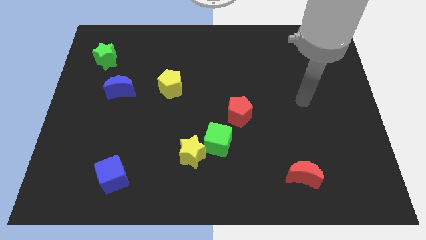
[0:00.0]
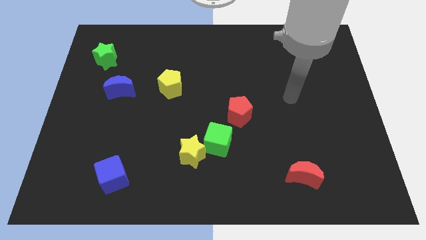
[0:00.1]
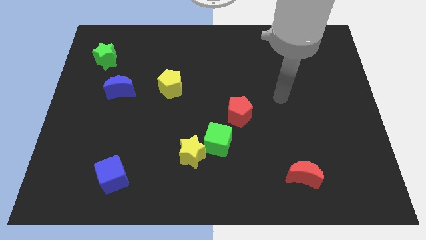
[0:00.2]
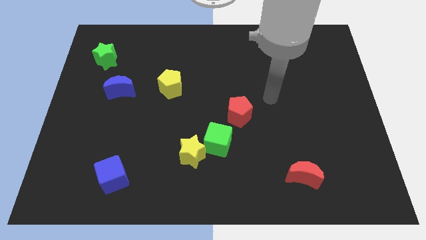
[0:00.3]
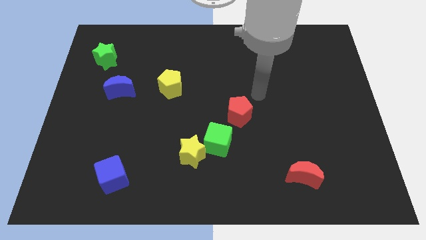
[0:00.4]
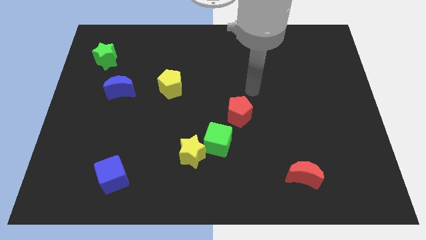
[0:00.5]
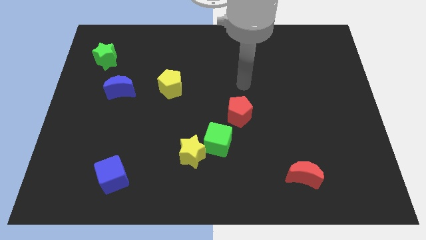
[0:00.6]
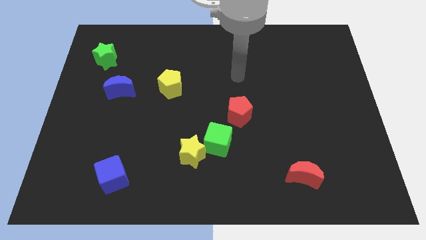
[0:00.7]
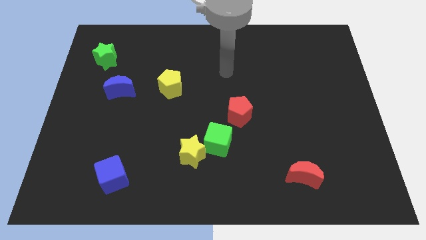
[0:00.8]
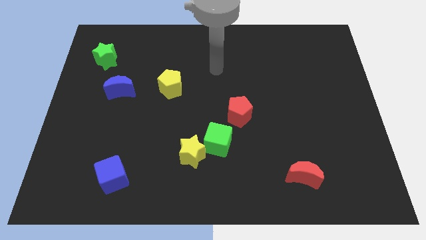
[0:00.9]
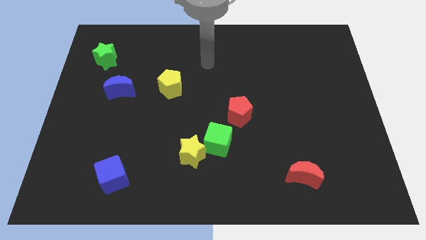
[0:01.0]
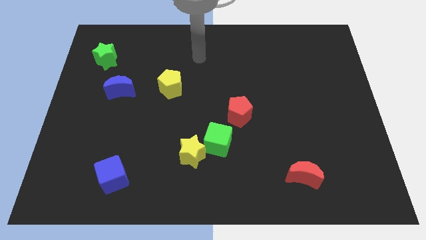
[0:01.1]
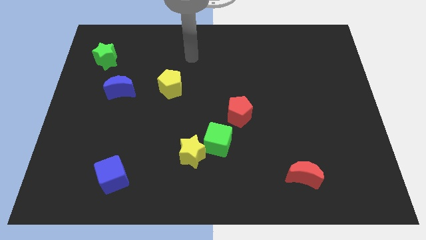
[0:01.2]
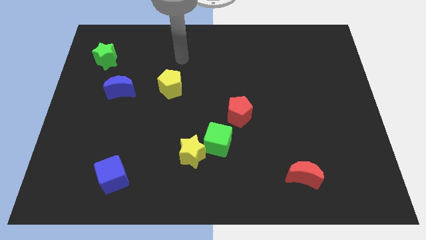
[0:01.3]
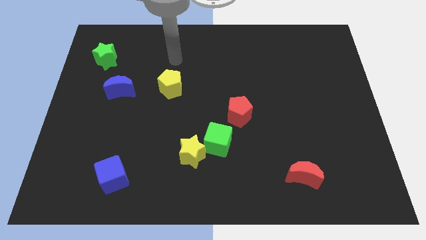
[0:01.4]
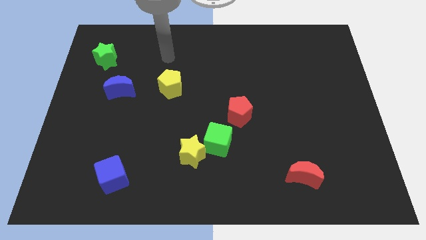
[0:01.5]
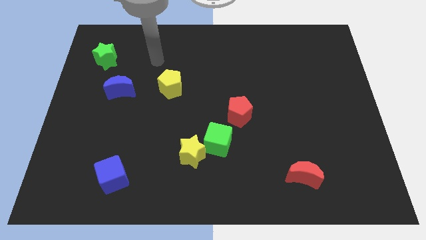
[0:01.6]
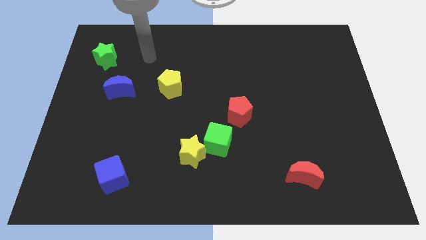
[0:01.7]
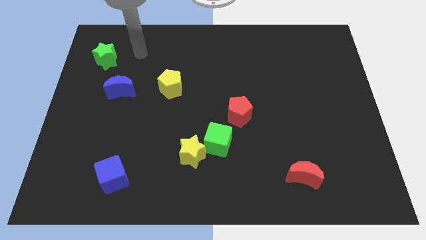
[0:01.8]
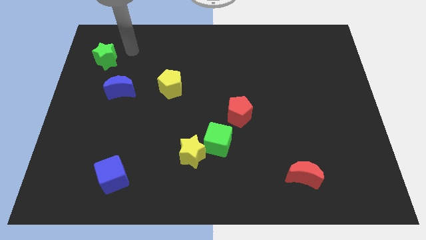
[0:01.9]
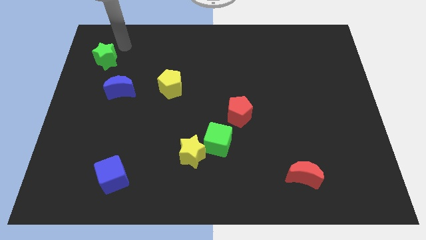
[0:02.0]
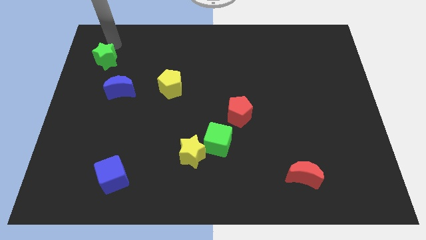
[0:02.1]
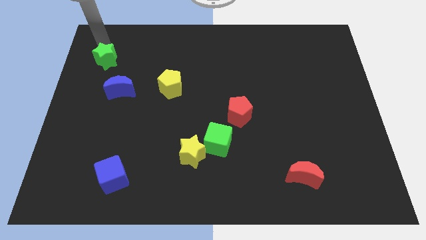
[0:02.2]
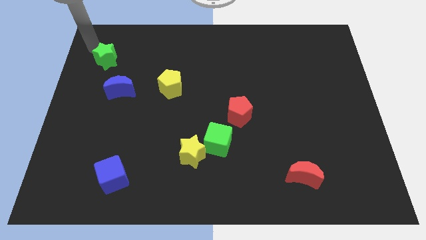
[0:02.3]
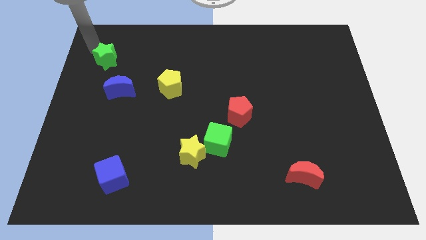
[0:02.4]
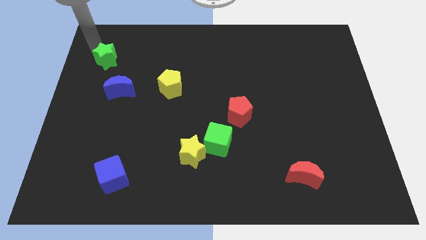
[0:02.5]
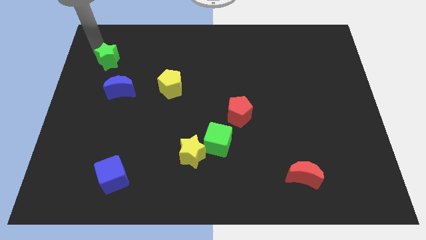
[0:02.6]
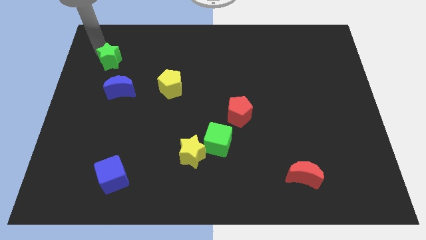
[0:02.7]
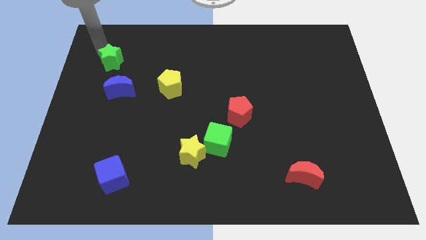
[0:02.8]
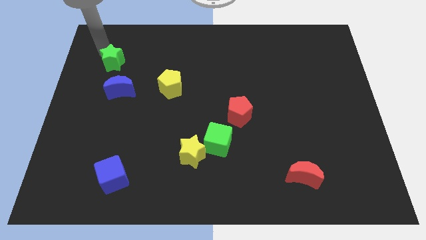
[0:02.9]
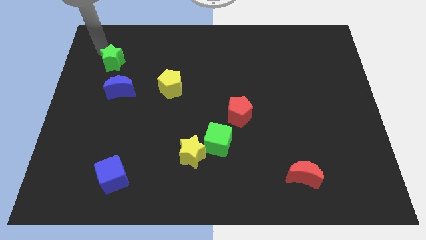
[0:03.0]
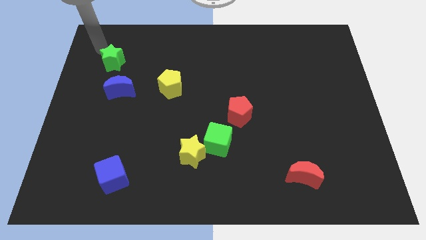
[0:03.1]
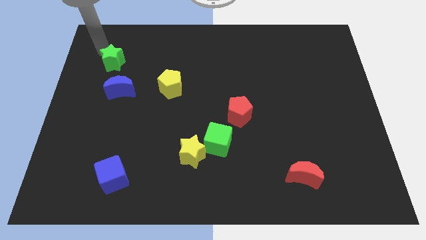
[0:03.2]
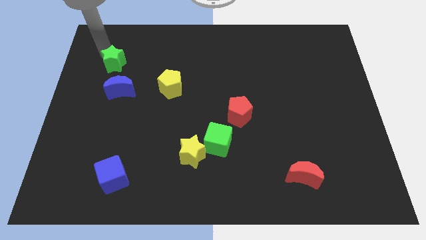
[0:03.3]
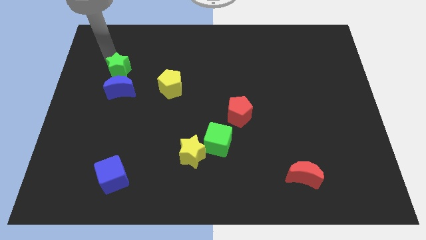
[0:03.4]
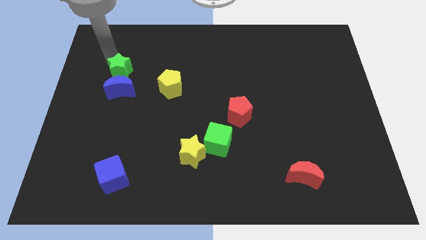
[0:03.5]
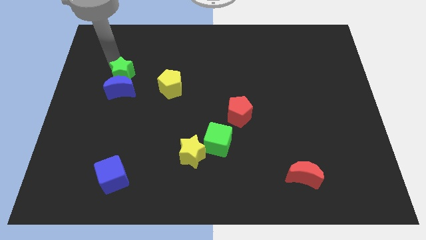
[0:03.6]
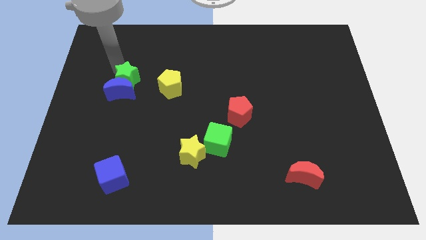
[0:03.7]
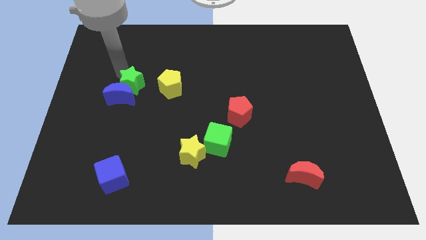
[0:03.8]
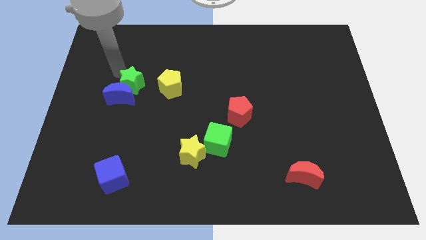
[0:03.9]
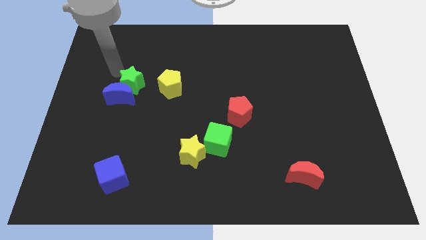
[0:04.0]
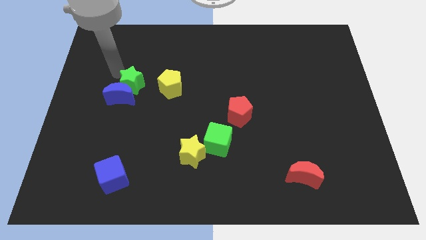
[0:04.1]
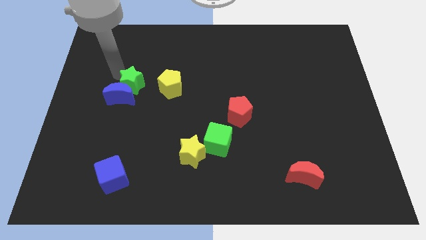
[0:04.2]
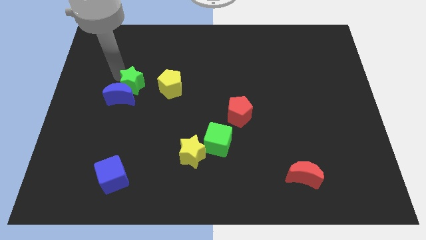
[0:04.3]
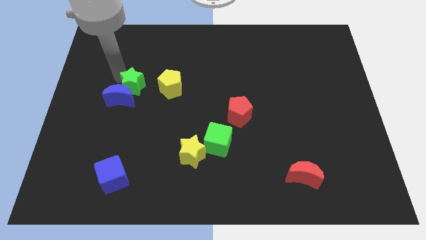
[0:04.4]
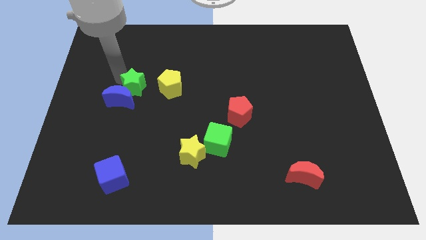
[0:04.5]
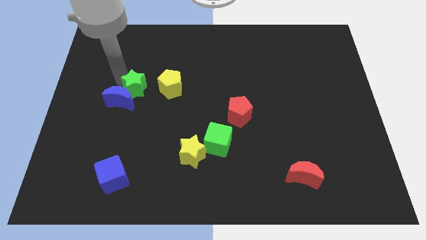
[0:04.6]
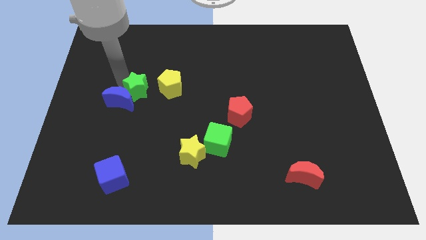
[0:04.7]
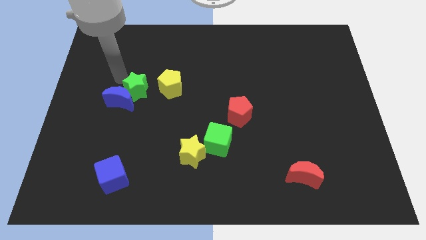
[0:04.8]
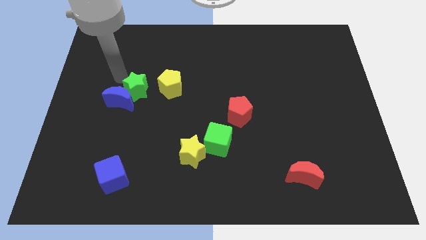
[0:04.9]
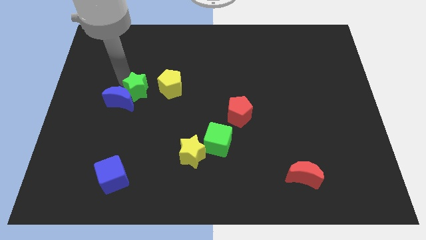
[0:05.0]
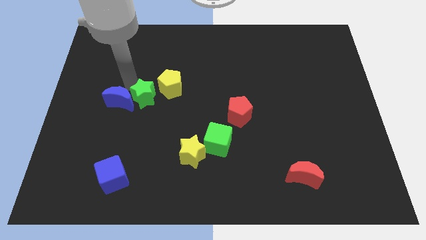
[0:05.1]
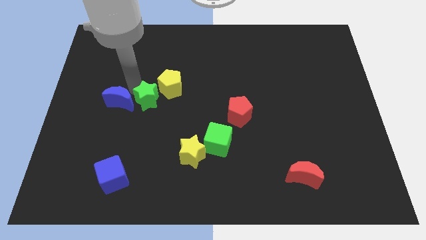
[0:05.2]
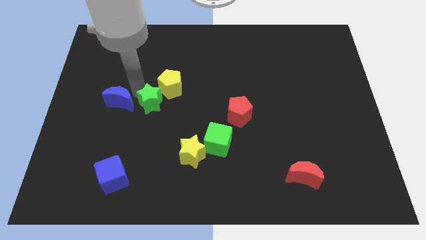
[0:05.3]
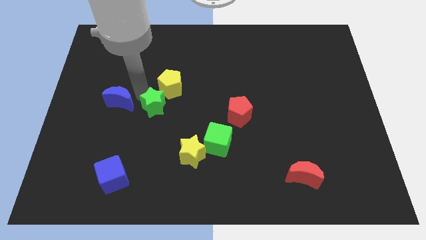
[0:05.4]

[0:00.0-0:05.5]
push the green star diagonally down and right

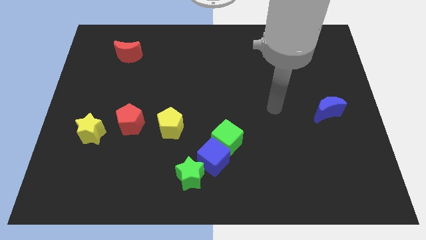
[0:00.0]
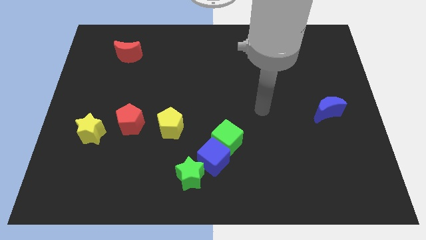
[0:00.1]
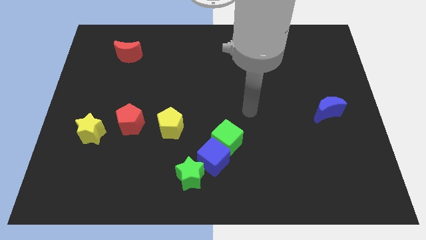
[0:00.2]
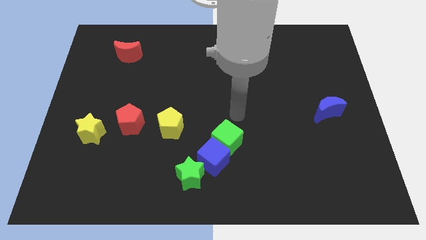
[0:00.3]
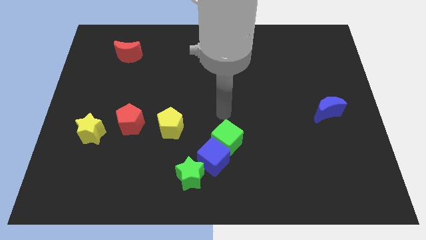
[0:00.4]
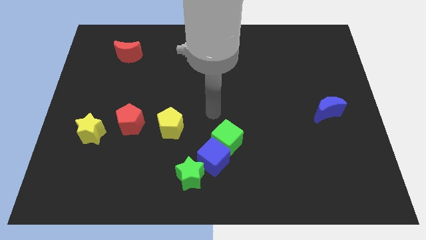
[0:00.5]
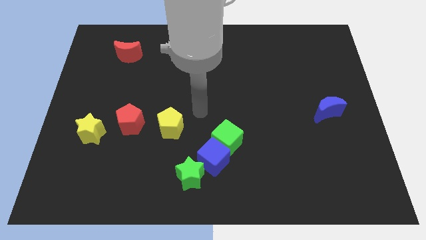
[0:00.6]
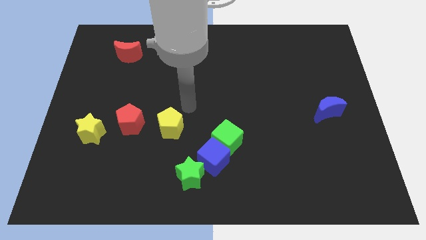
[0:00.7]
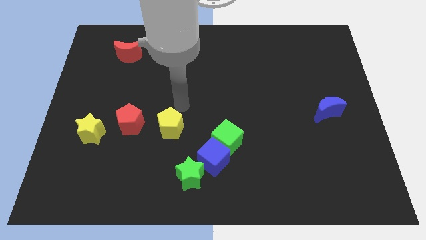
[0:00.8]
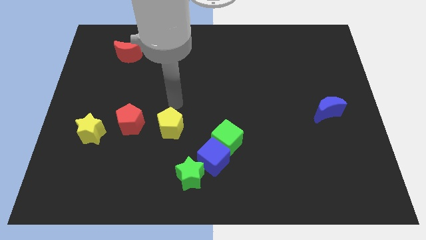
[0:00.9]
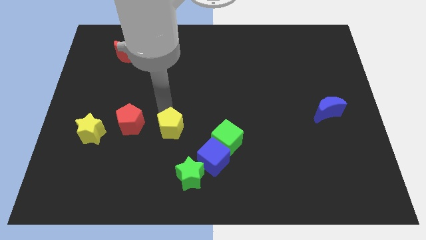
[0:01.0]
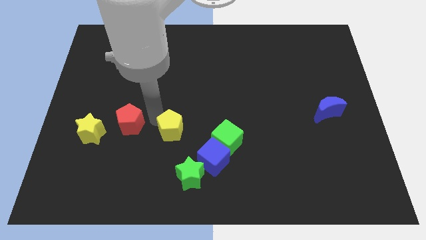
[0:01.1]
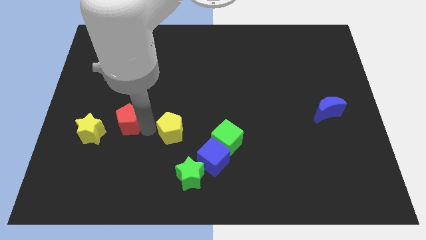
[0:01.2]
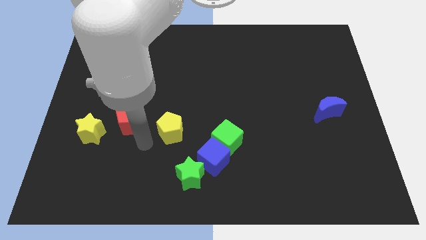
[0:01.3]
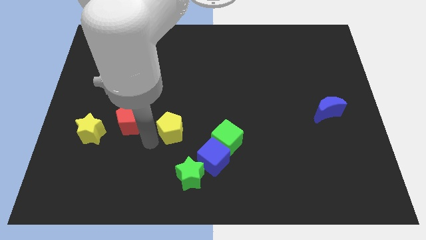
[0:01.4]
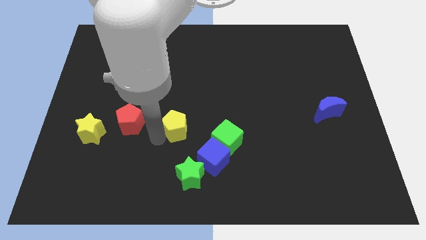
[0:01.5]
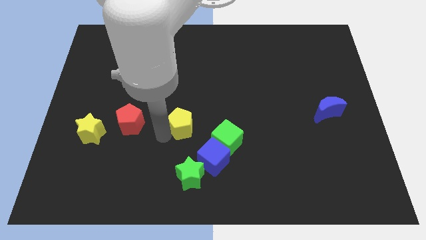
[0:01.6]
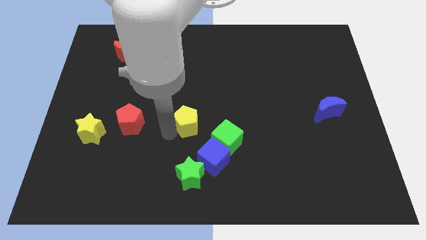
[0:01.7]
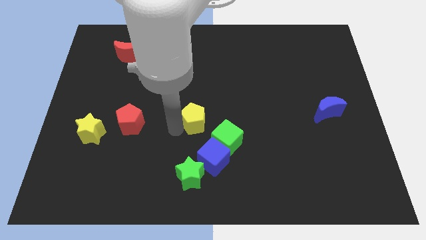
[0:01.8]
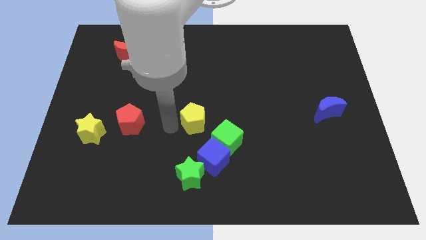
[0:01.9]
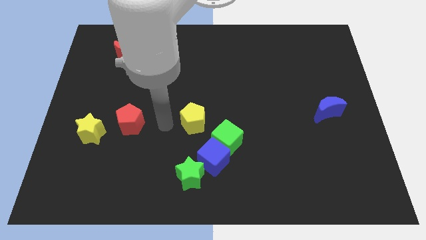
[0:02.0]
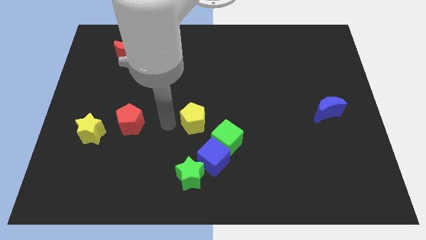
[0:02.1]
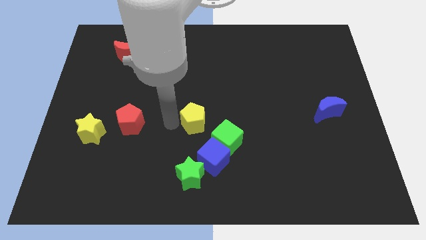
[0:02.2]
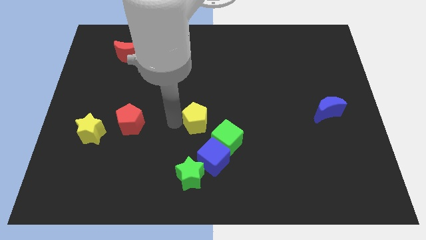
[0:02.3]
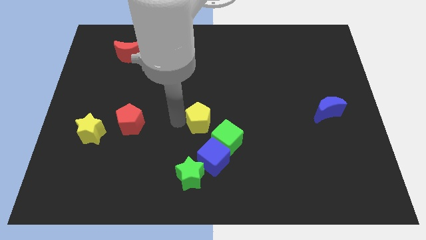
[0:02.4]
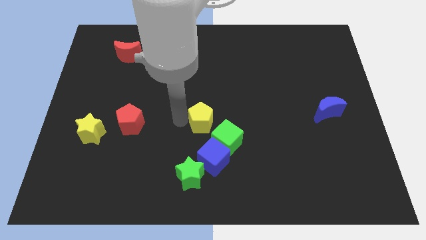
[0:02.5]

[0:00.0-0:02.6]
push the yellow pentagon right a little bit
